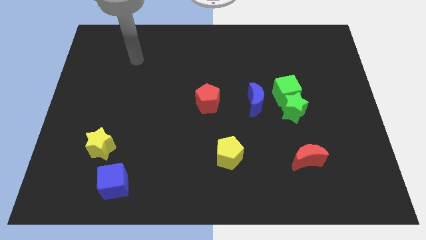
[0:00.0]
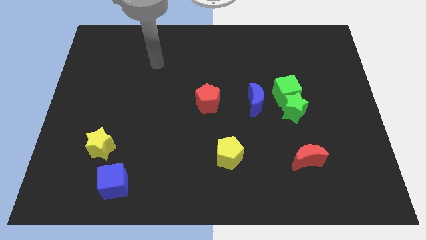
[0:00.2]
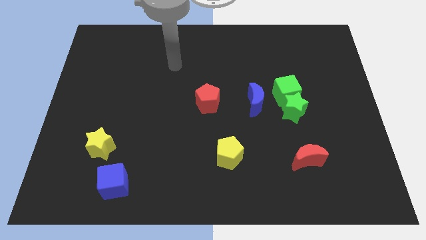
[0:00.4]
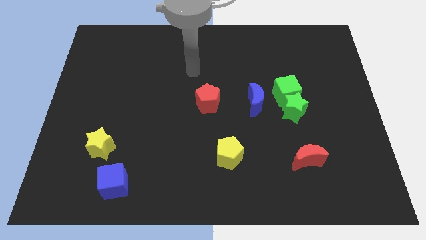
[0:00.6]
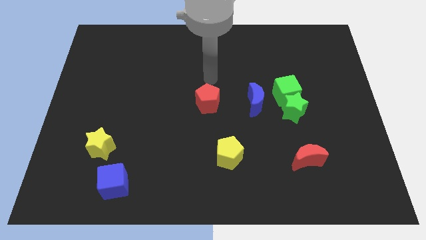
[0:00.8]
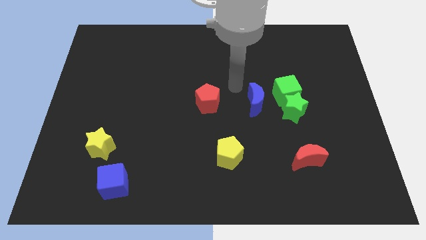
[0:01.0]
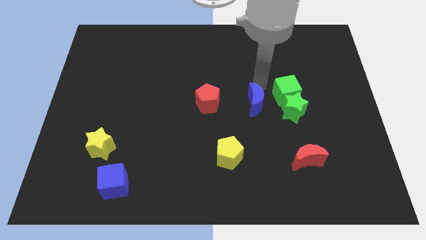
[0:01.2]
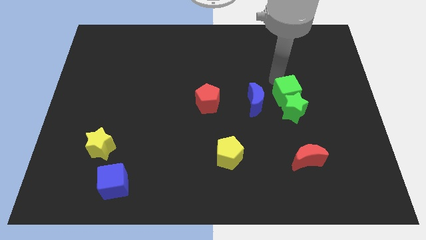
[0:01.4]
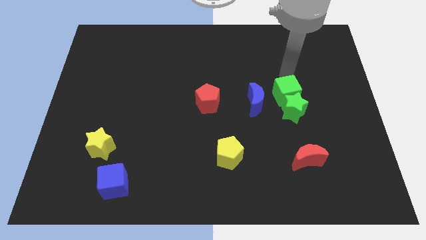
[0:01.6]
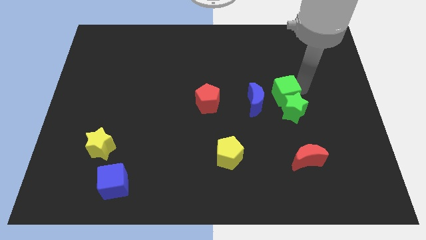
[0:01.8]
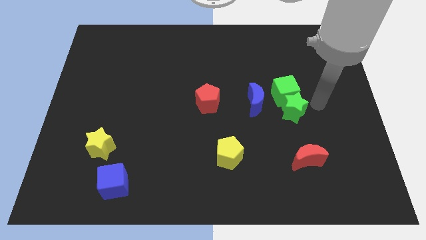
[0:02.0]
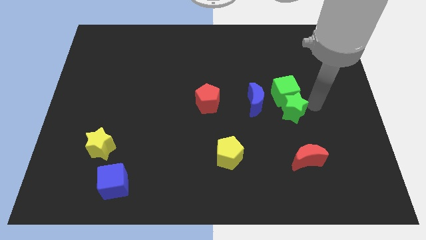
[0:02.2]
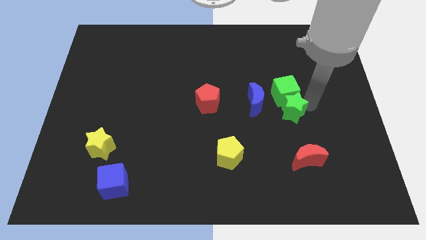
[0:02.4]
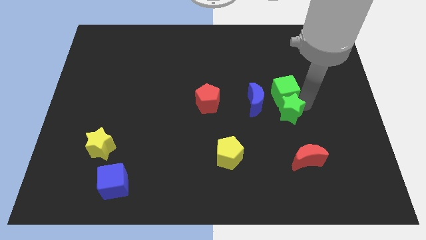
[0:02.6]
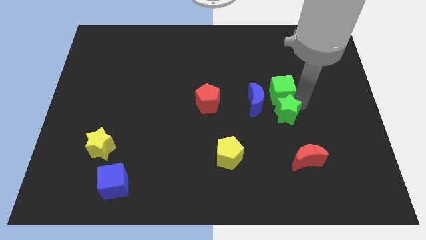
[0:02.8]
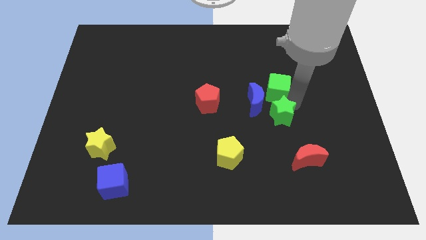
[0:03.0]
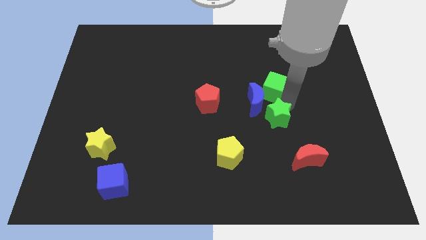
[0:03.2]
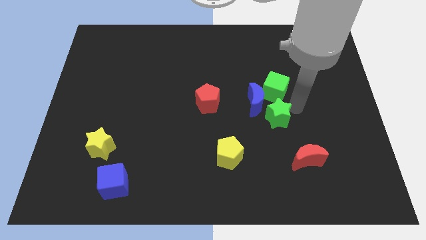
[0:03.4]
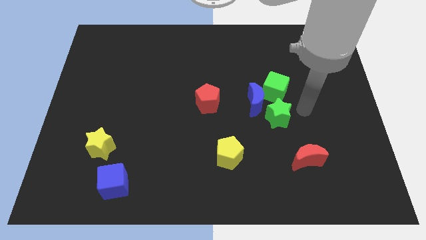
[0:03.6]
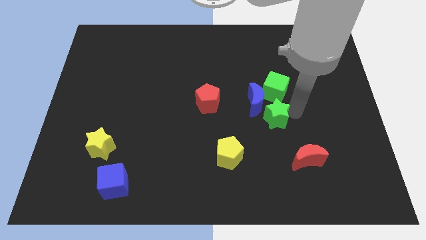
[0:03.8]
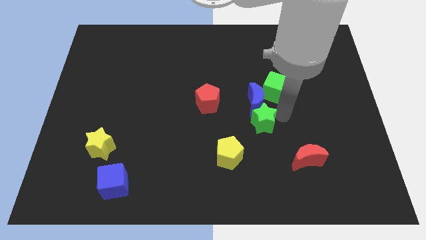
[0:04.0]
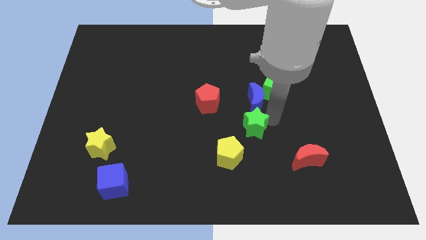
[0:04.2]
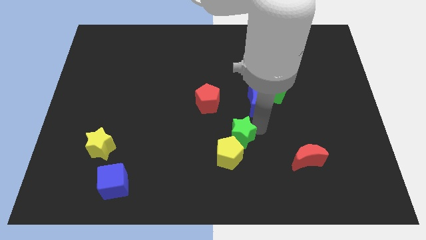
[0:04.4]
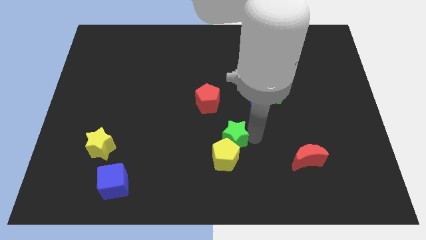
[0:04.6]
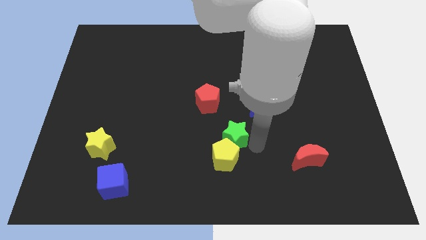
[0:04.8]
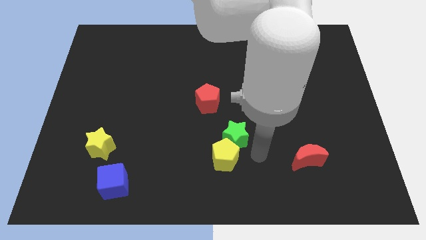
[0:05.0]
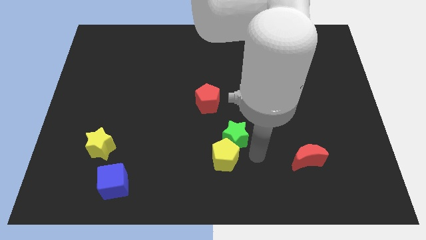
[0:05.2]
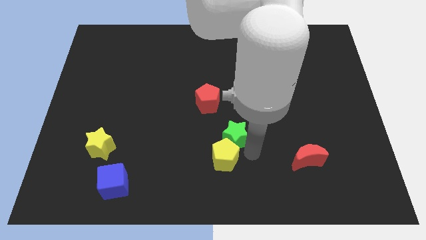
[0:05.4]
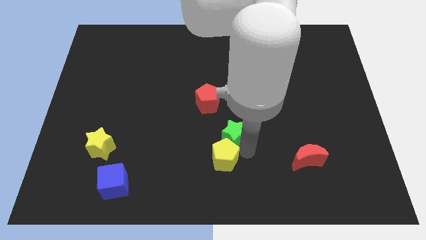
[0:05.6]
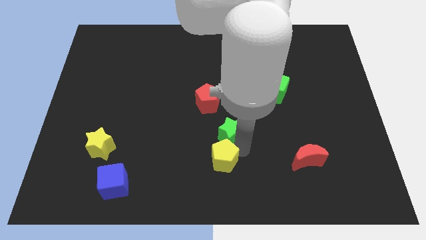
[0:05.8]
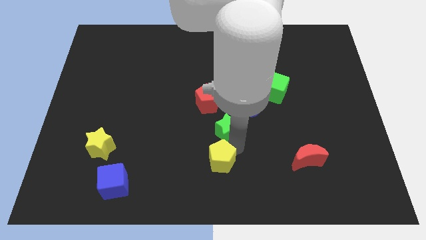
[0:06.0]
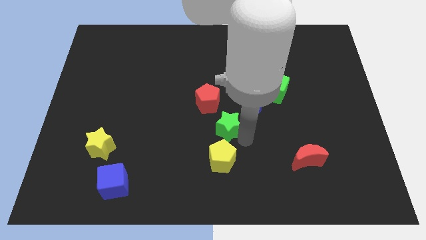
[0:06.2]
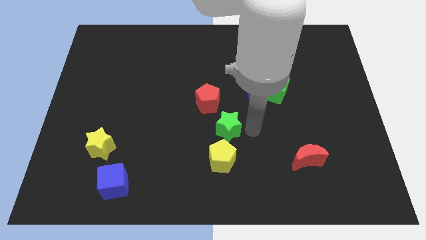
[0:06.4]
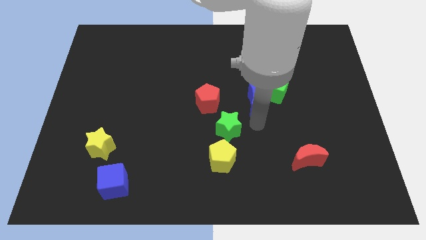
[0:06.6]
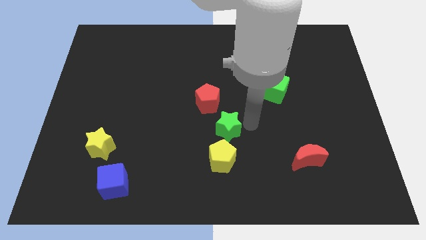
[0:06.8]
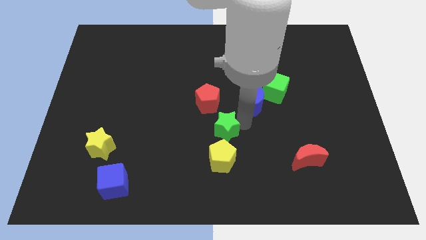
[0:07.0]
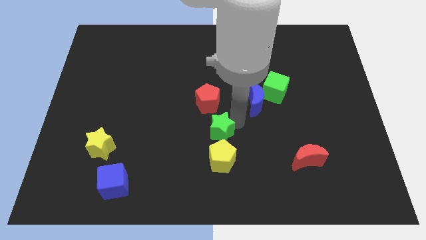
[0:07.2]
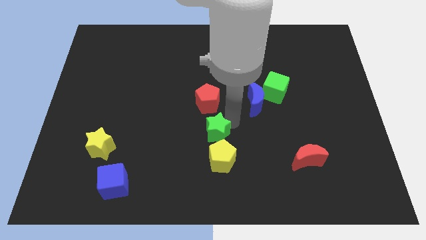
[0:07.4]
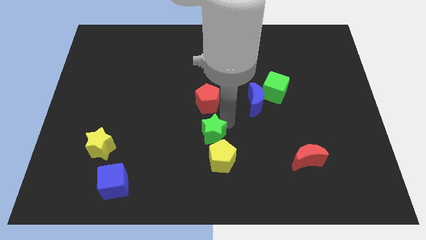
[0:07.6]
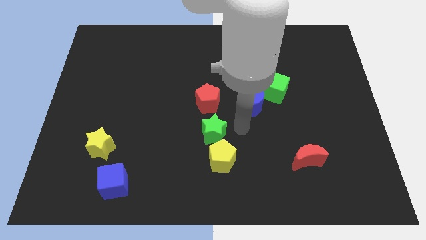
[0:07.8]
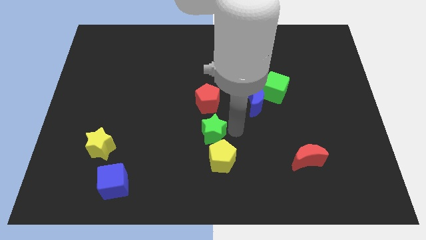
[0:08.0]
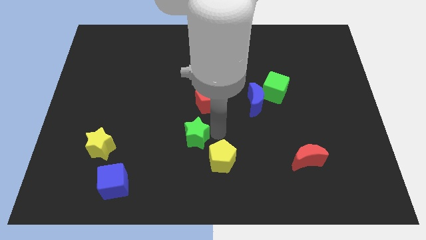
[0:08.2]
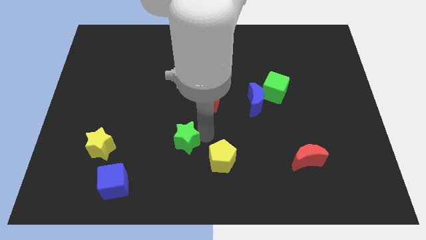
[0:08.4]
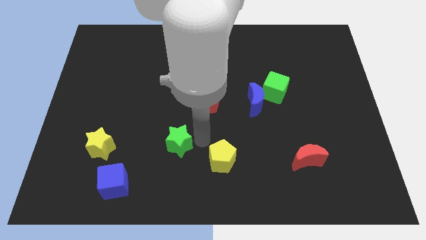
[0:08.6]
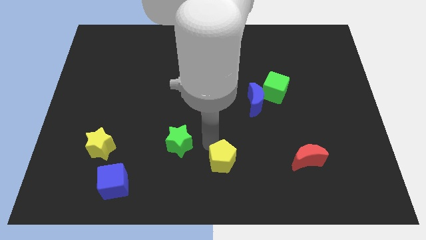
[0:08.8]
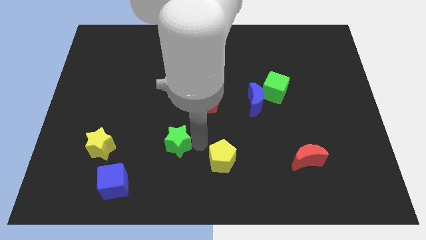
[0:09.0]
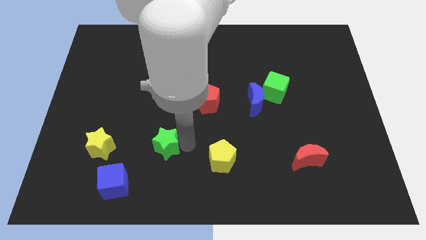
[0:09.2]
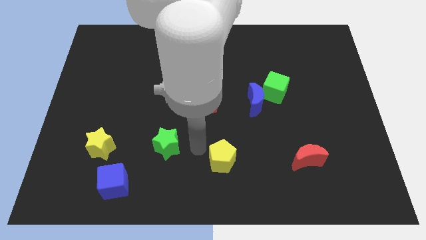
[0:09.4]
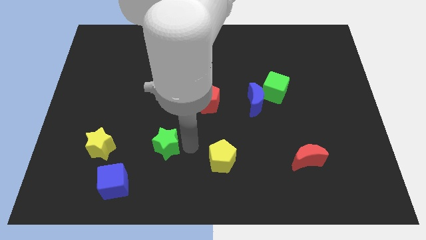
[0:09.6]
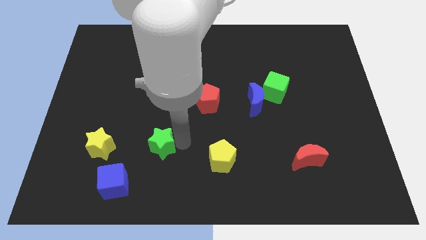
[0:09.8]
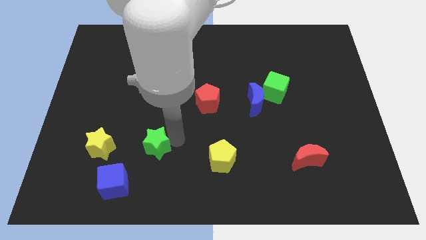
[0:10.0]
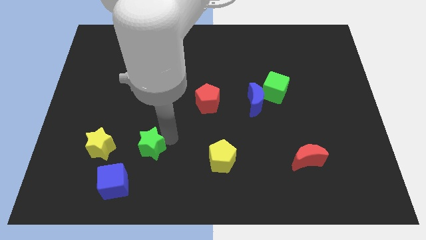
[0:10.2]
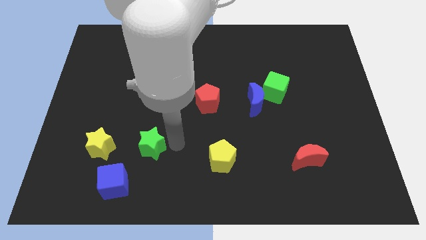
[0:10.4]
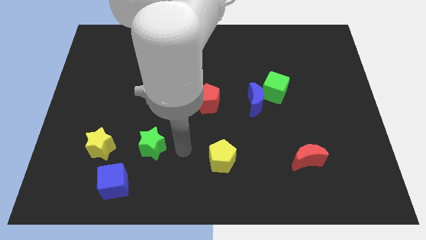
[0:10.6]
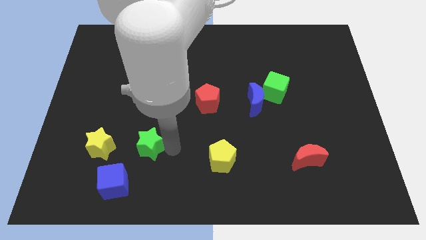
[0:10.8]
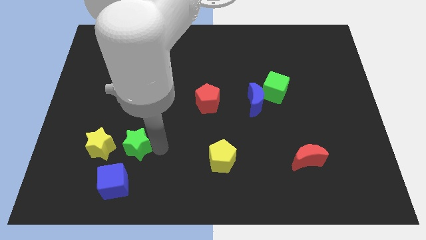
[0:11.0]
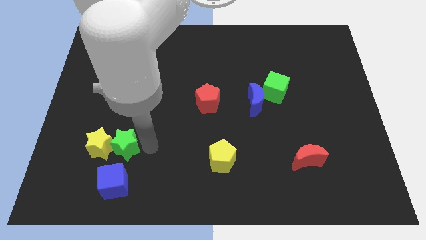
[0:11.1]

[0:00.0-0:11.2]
push the green star to the yellow star

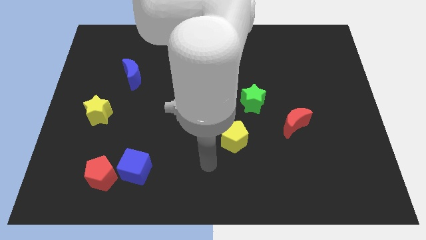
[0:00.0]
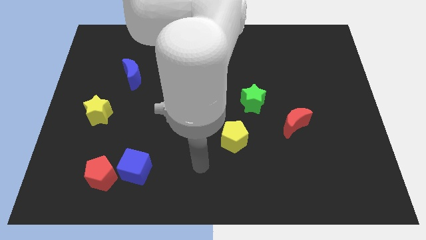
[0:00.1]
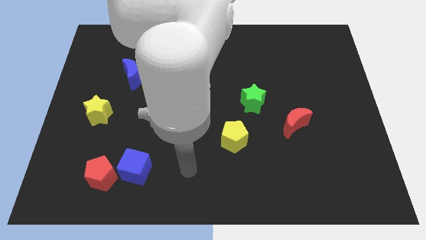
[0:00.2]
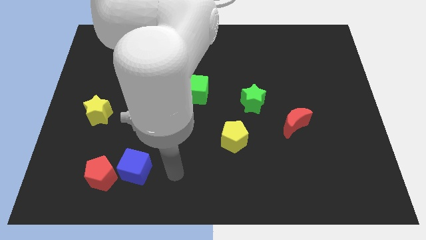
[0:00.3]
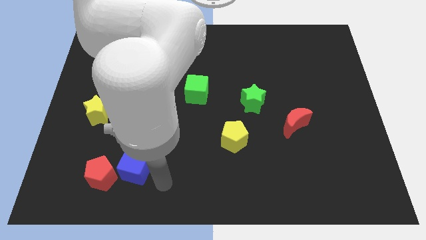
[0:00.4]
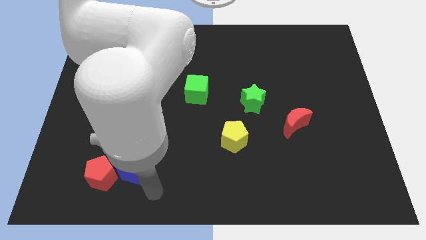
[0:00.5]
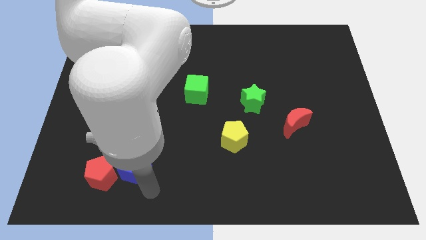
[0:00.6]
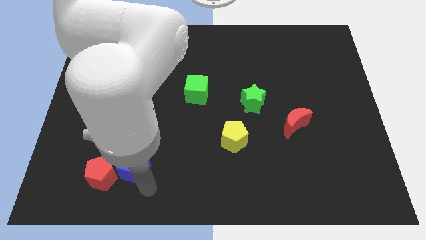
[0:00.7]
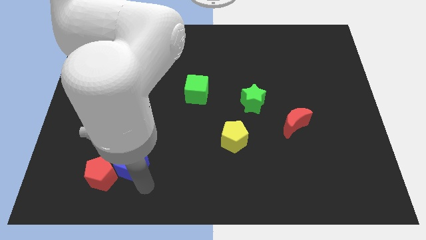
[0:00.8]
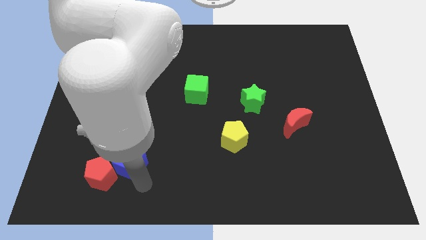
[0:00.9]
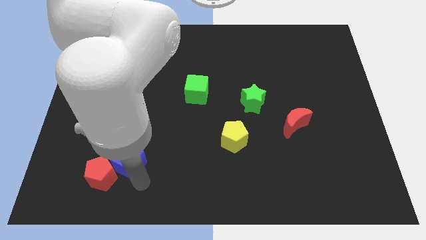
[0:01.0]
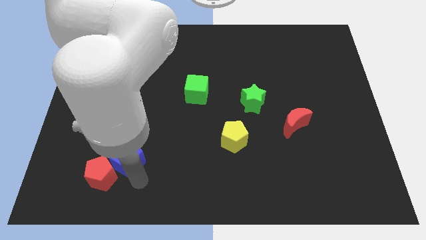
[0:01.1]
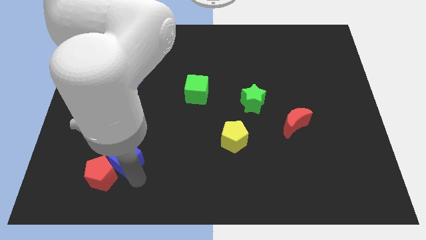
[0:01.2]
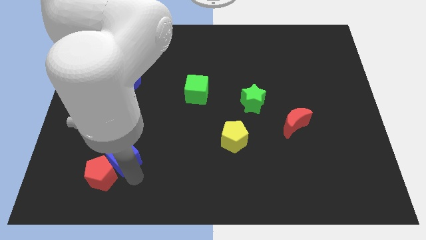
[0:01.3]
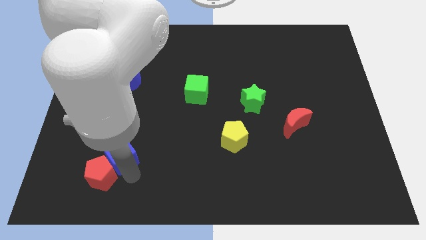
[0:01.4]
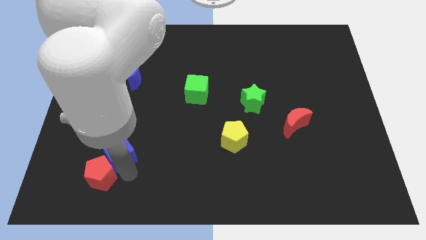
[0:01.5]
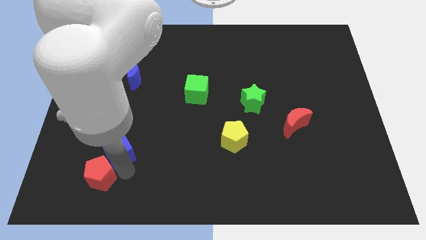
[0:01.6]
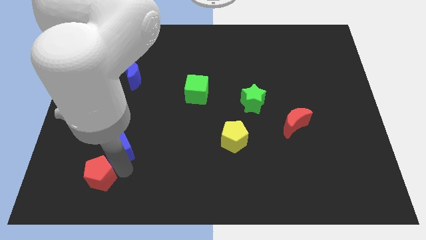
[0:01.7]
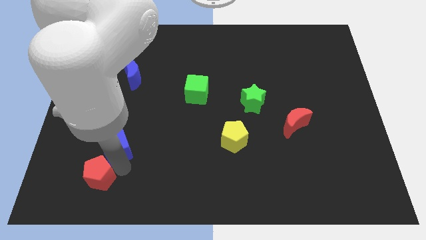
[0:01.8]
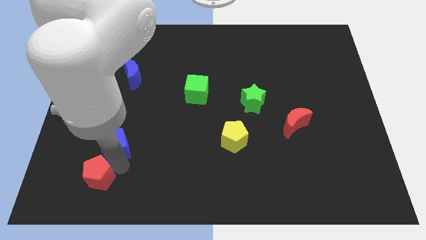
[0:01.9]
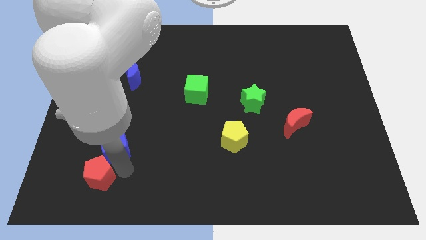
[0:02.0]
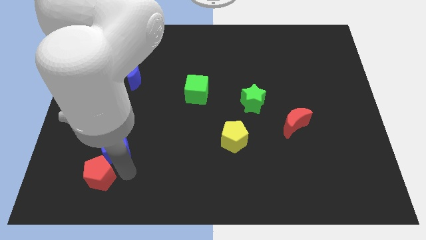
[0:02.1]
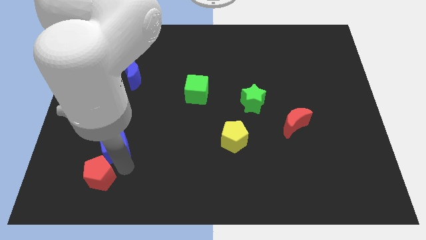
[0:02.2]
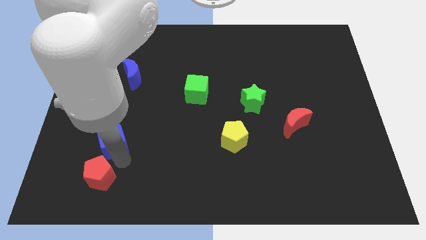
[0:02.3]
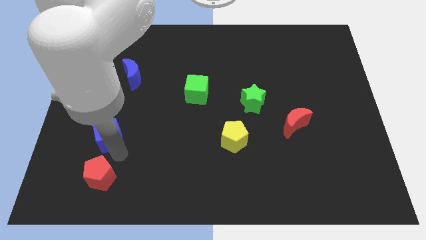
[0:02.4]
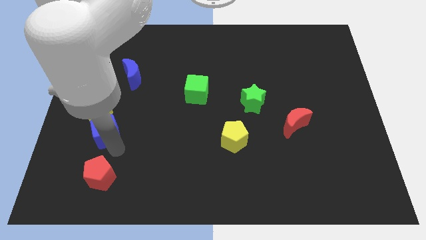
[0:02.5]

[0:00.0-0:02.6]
put the blue cube to the yellow star
